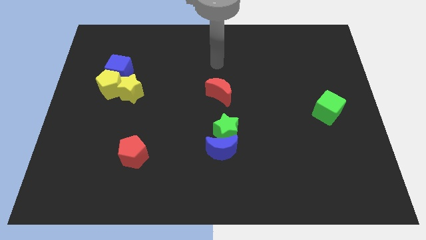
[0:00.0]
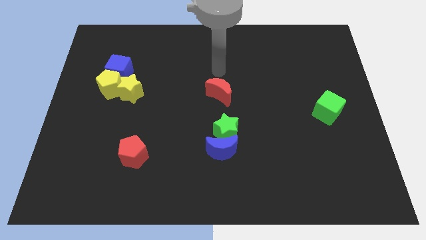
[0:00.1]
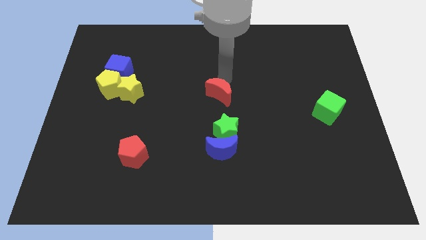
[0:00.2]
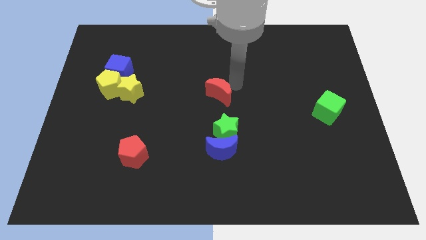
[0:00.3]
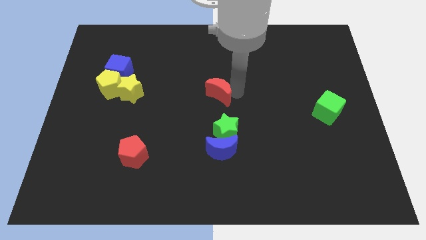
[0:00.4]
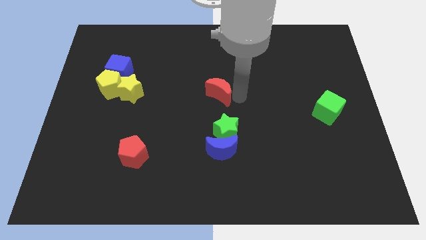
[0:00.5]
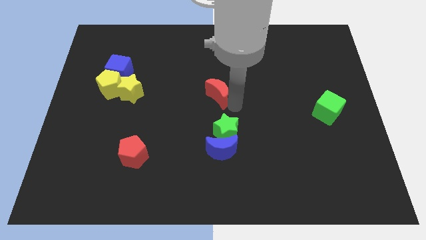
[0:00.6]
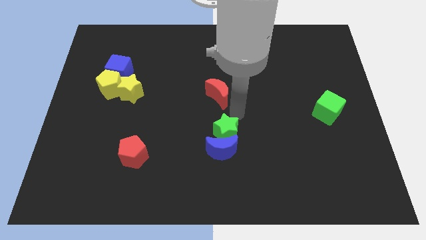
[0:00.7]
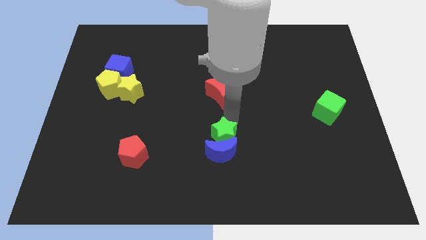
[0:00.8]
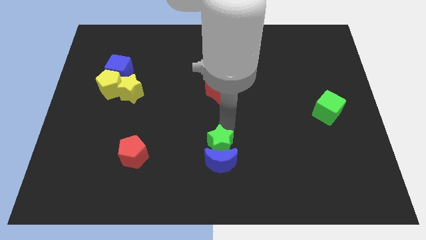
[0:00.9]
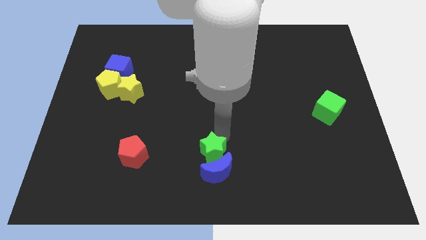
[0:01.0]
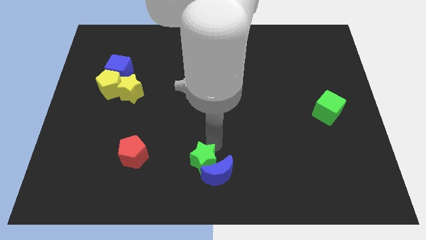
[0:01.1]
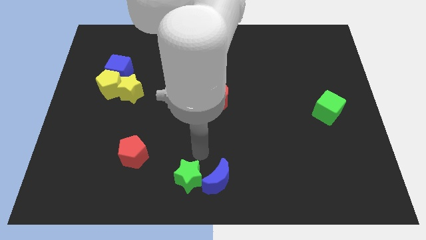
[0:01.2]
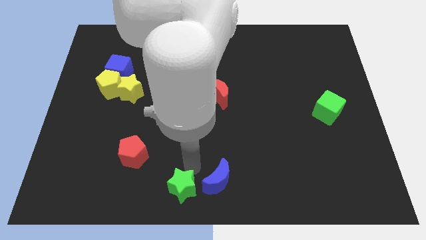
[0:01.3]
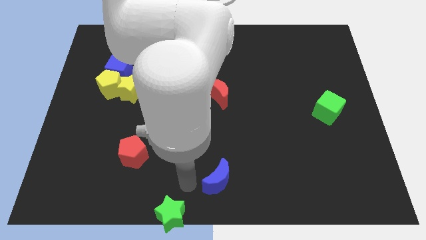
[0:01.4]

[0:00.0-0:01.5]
move the blue moon away from the green star

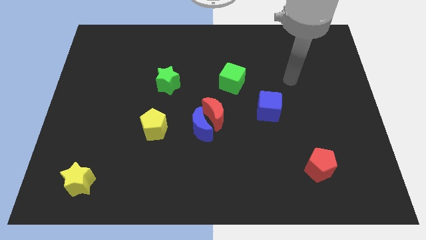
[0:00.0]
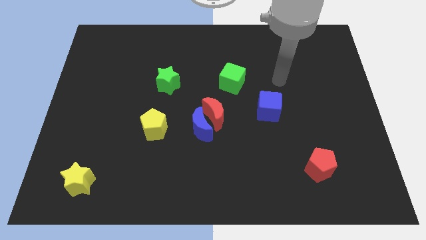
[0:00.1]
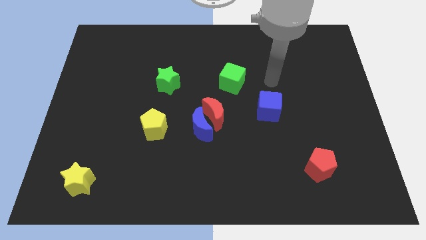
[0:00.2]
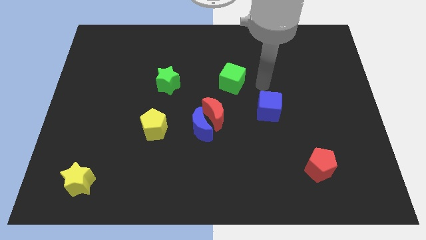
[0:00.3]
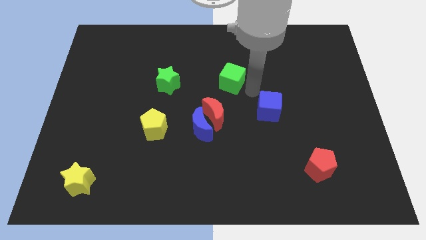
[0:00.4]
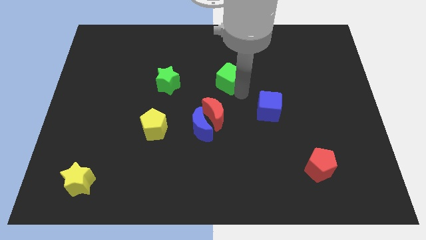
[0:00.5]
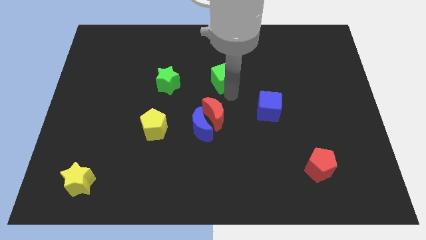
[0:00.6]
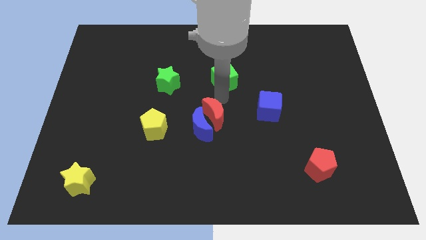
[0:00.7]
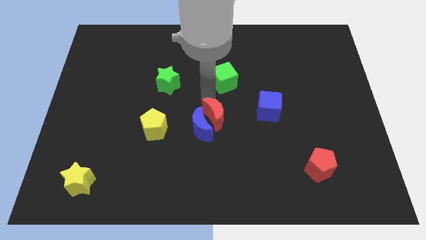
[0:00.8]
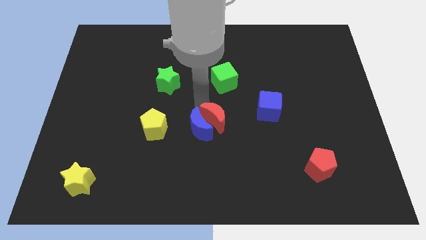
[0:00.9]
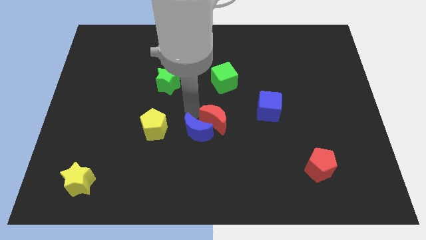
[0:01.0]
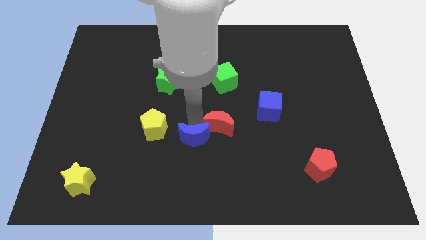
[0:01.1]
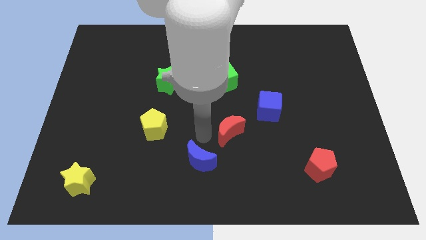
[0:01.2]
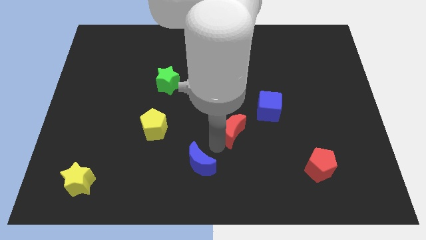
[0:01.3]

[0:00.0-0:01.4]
separate the red moon from the blue moon

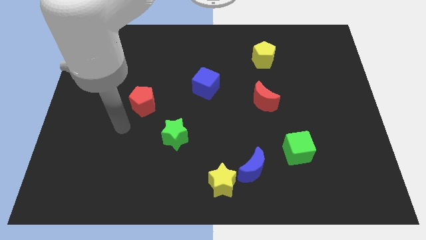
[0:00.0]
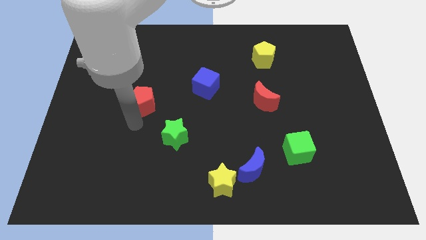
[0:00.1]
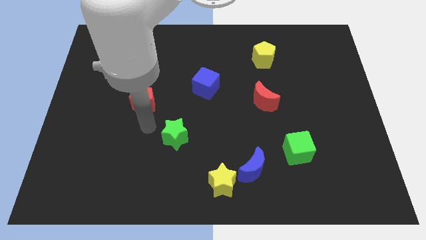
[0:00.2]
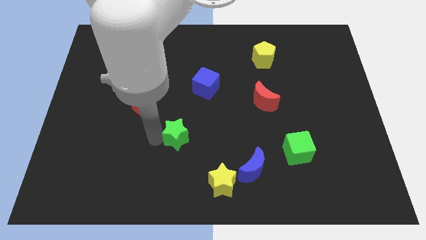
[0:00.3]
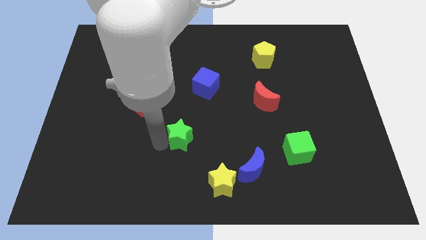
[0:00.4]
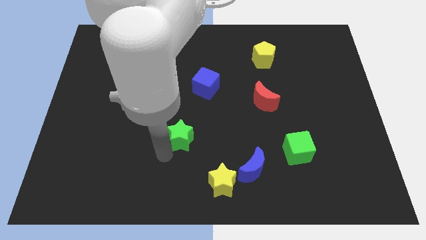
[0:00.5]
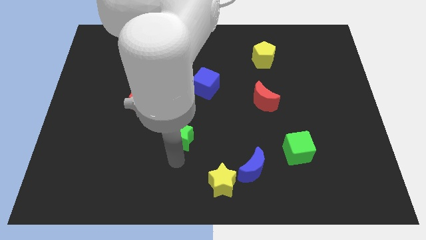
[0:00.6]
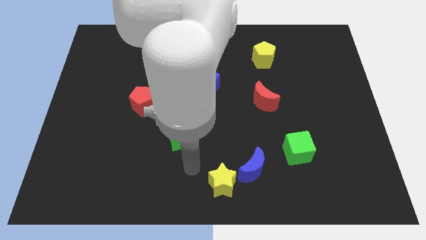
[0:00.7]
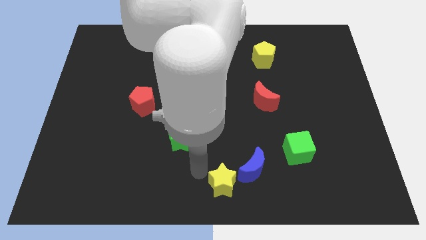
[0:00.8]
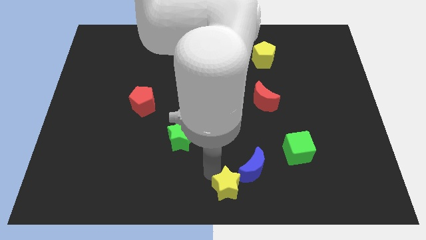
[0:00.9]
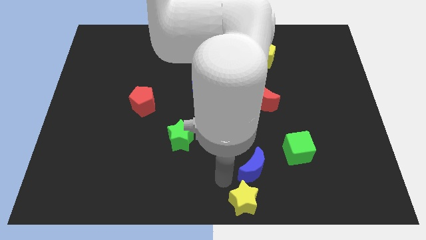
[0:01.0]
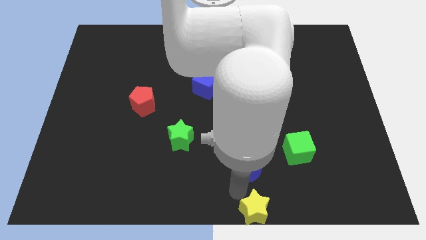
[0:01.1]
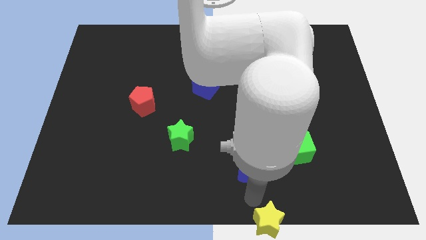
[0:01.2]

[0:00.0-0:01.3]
separate the blue moon from the yellow star

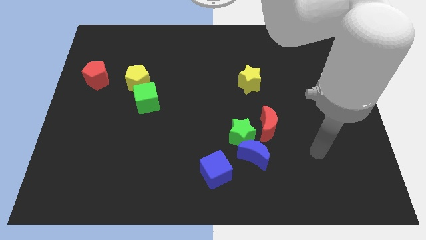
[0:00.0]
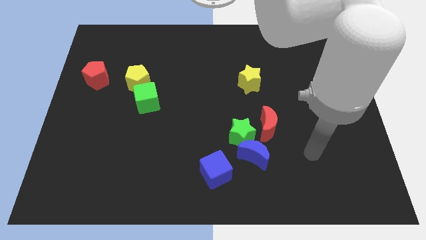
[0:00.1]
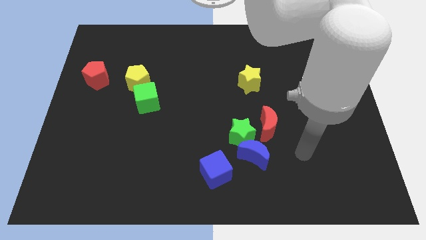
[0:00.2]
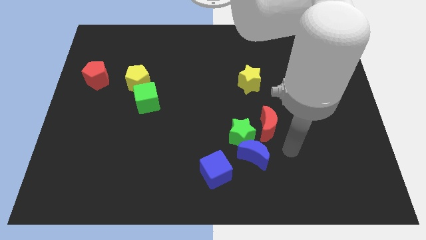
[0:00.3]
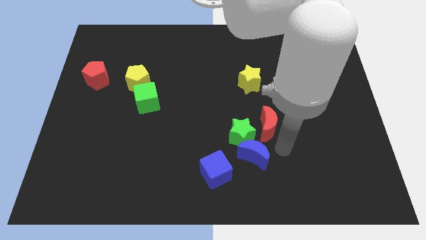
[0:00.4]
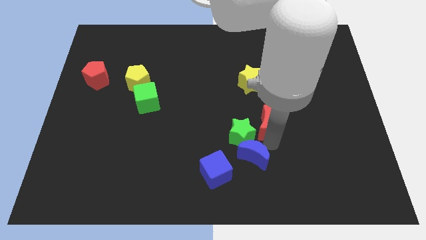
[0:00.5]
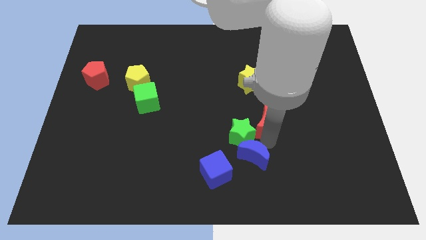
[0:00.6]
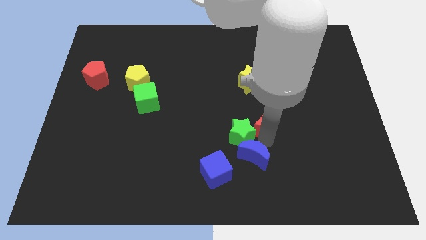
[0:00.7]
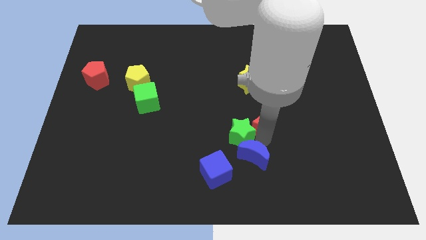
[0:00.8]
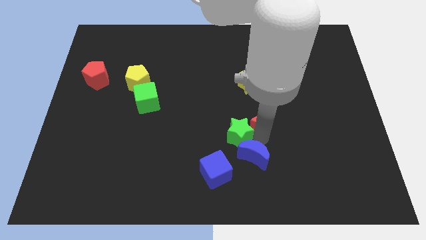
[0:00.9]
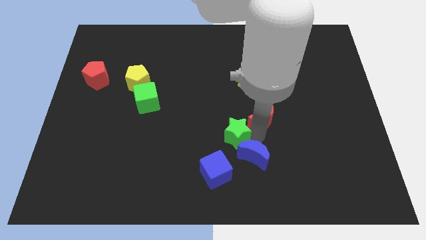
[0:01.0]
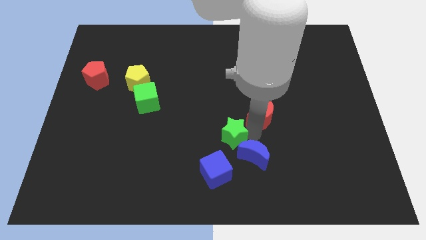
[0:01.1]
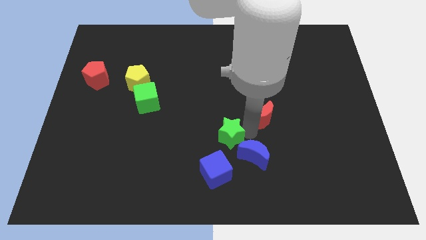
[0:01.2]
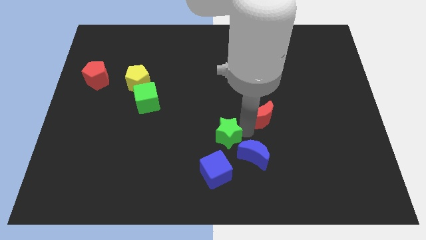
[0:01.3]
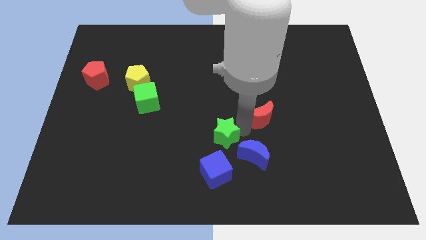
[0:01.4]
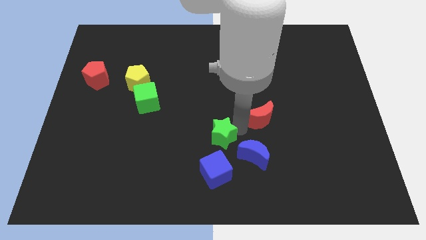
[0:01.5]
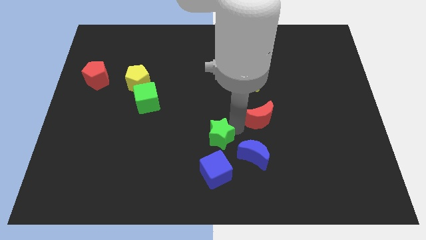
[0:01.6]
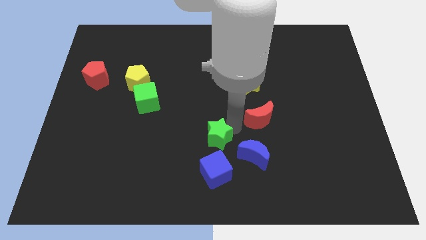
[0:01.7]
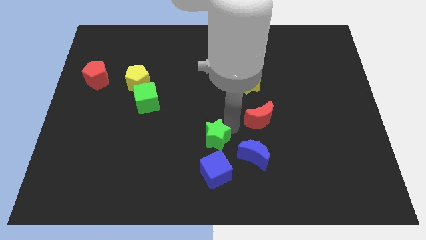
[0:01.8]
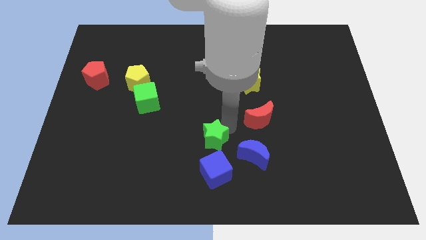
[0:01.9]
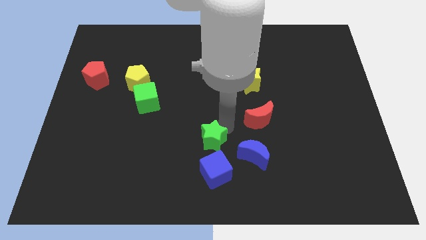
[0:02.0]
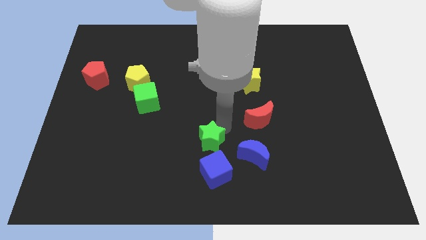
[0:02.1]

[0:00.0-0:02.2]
pull the green star apart from the blue moon and red moon

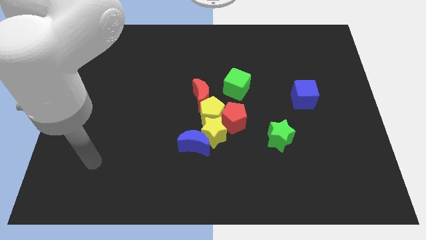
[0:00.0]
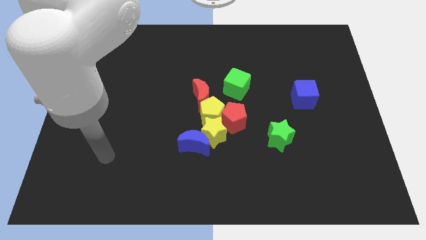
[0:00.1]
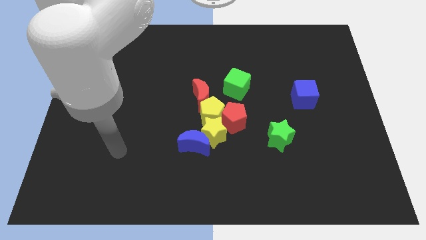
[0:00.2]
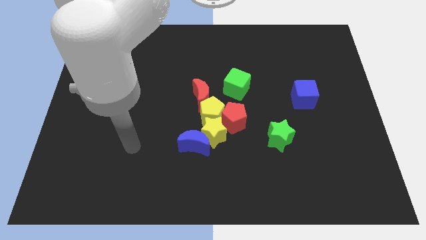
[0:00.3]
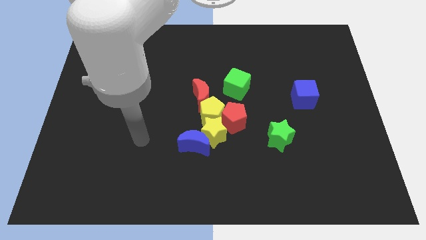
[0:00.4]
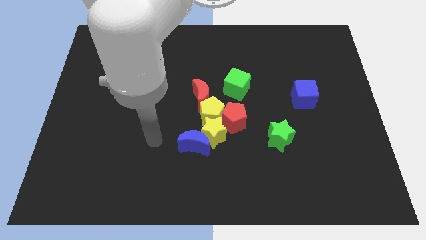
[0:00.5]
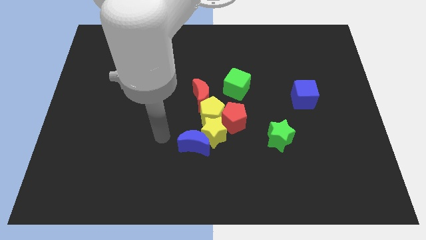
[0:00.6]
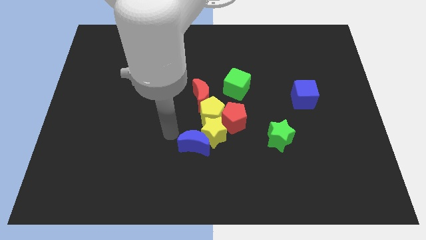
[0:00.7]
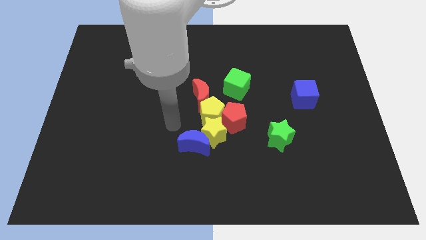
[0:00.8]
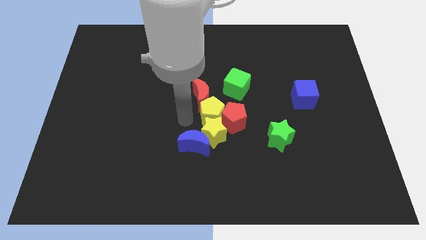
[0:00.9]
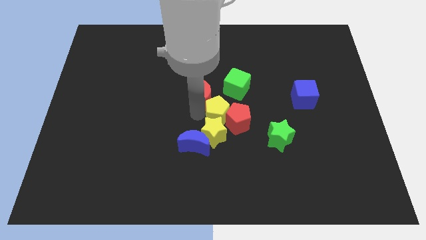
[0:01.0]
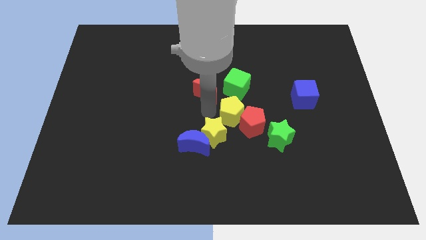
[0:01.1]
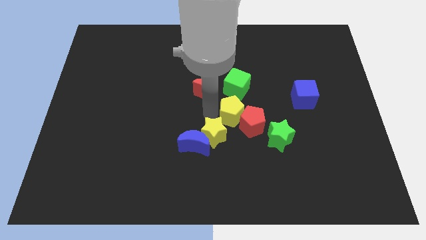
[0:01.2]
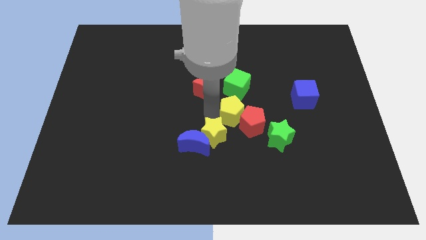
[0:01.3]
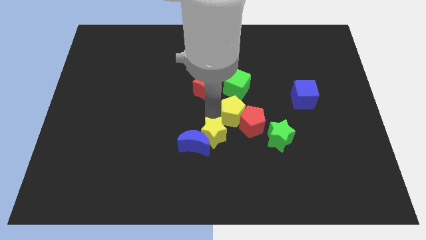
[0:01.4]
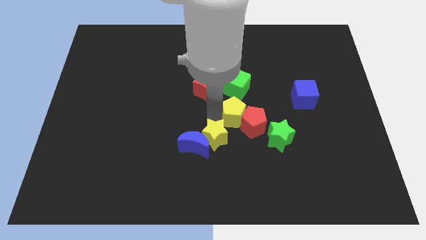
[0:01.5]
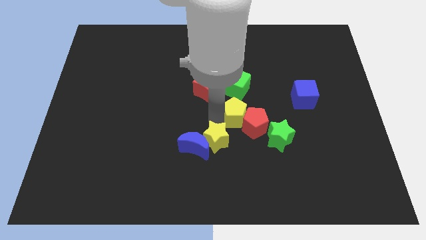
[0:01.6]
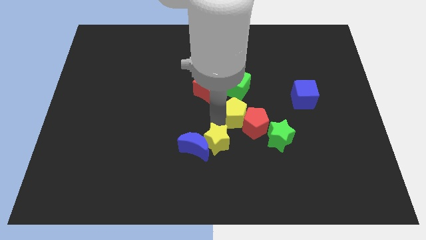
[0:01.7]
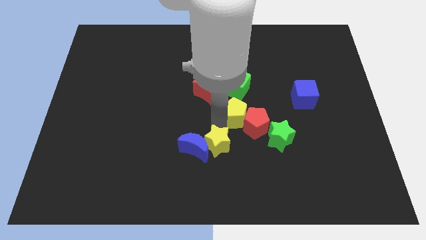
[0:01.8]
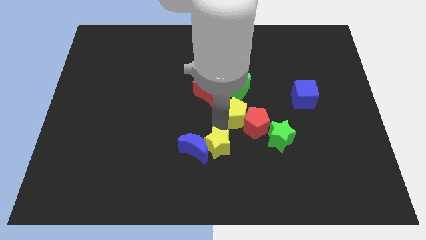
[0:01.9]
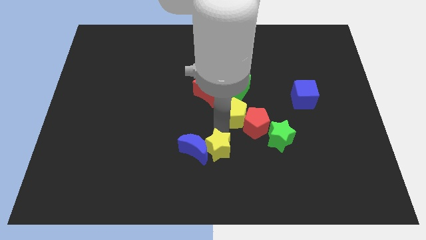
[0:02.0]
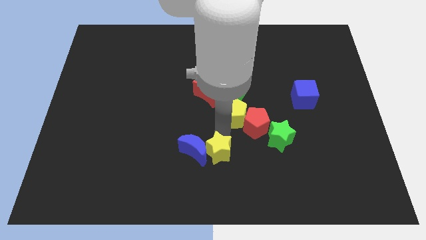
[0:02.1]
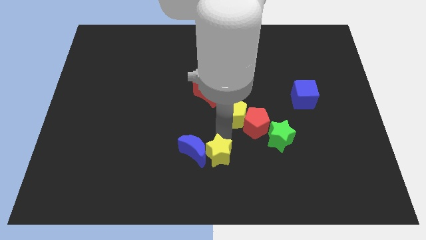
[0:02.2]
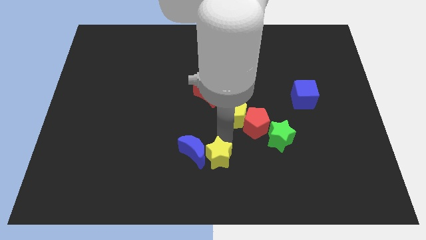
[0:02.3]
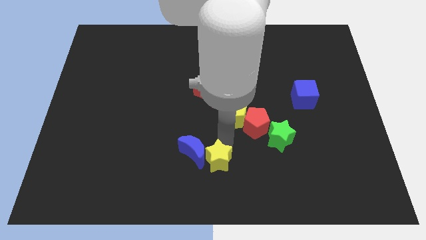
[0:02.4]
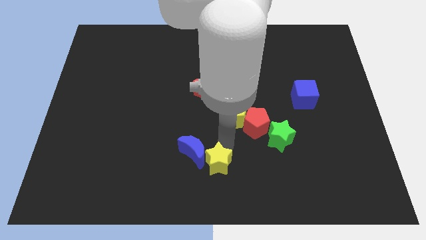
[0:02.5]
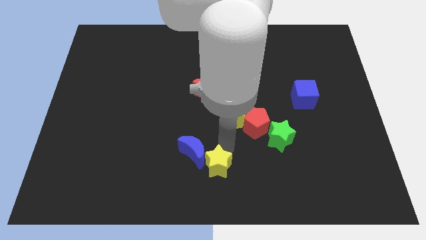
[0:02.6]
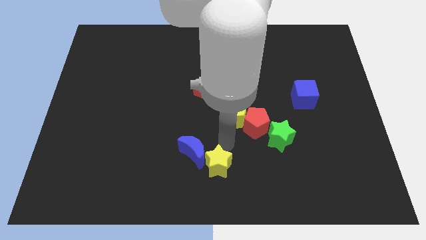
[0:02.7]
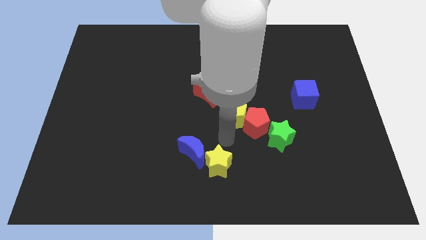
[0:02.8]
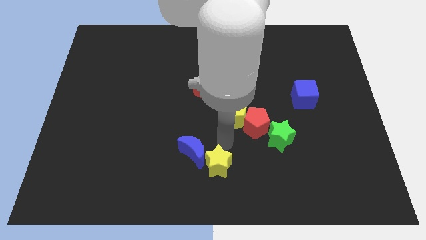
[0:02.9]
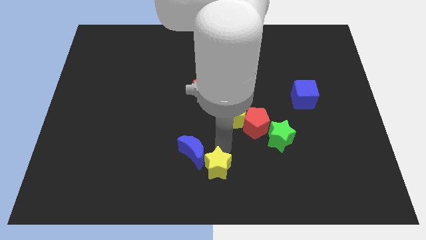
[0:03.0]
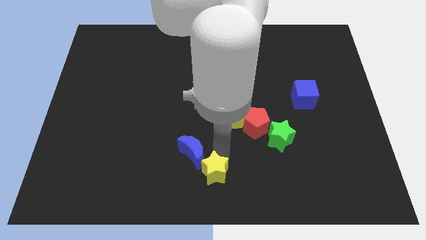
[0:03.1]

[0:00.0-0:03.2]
pull the yellow star apart from the blue moon, yellow pentagon, and red pentagon
